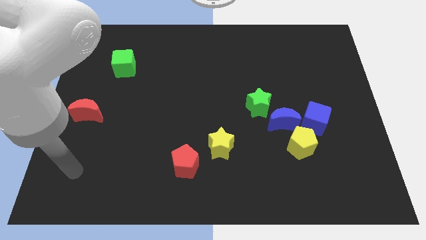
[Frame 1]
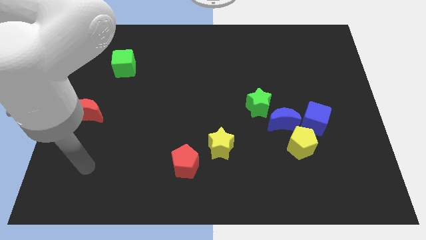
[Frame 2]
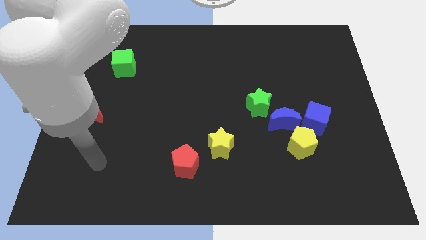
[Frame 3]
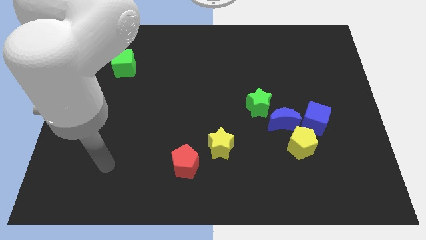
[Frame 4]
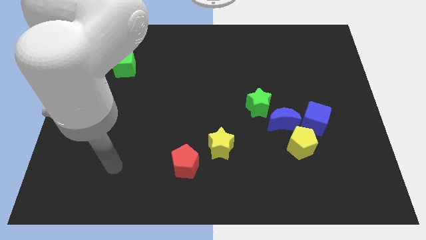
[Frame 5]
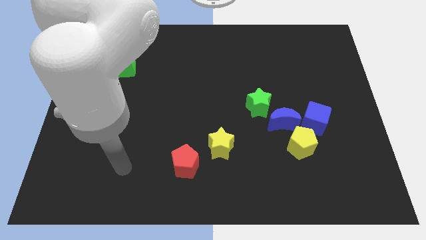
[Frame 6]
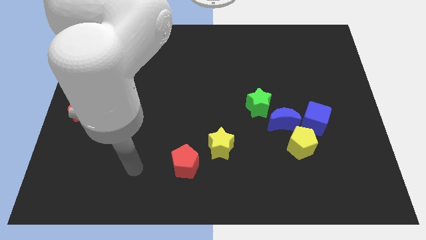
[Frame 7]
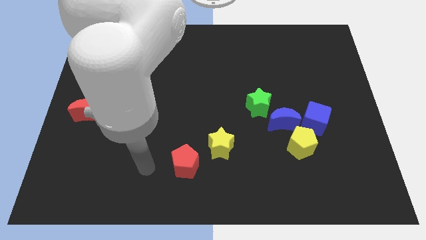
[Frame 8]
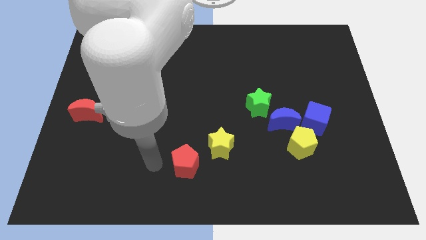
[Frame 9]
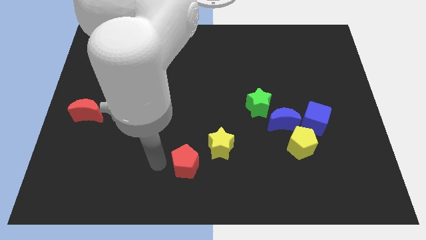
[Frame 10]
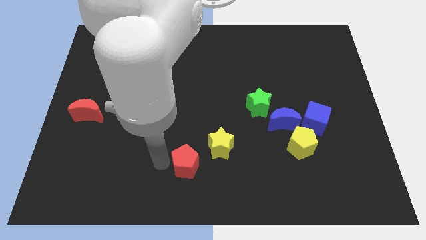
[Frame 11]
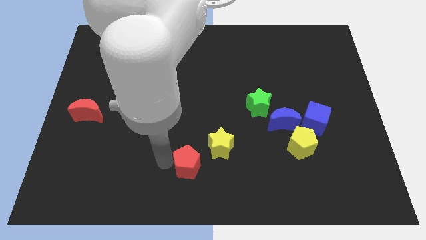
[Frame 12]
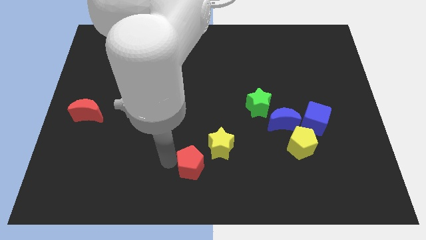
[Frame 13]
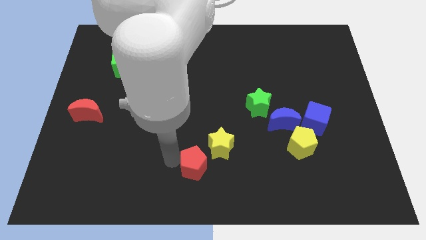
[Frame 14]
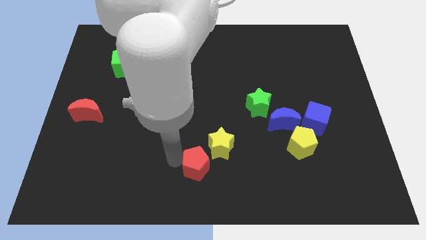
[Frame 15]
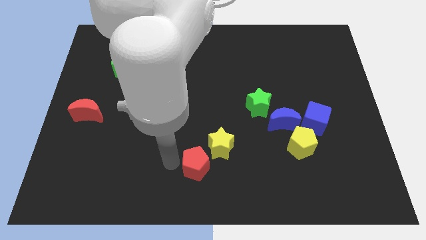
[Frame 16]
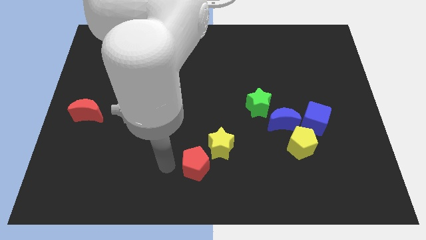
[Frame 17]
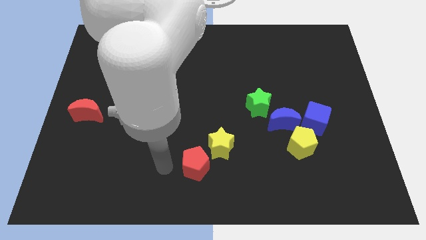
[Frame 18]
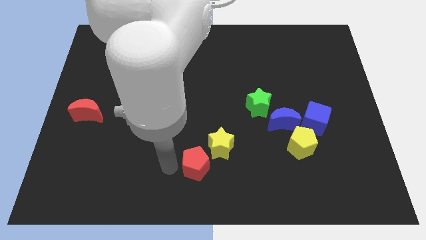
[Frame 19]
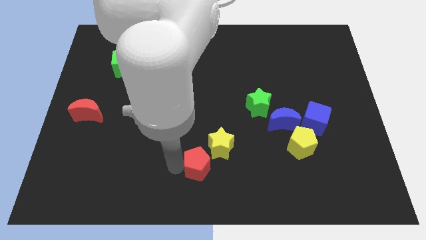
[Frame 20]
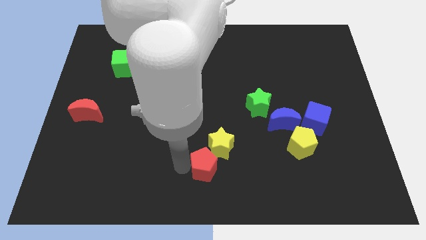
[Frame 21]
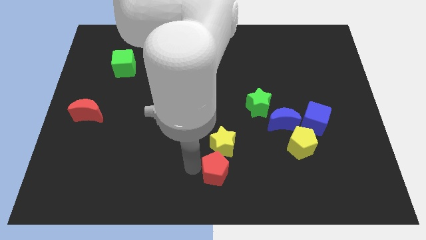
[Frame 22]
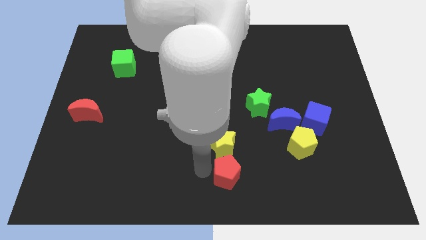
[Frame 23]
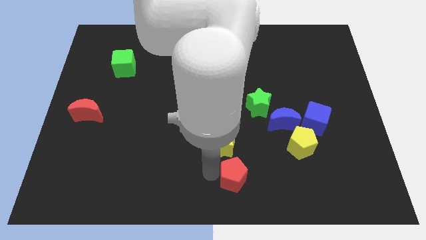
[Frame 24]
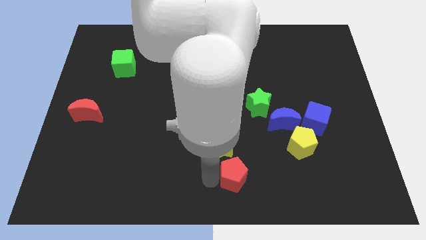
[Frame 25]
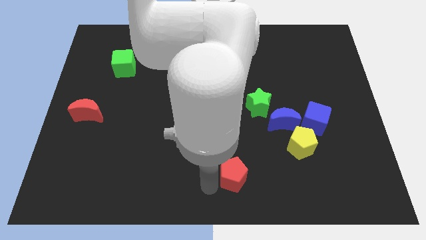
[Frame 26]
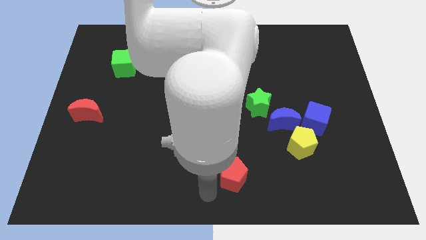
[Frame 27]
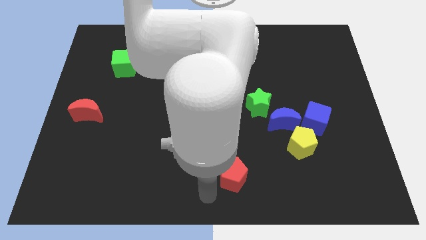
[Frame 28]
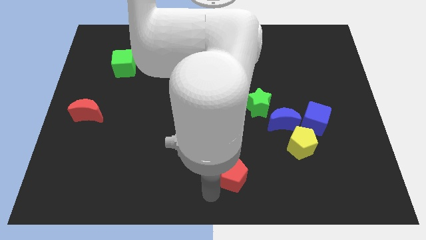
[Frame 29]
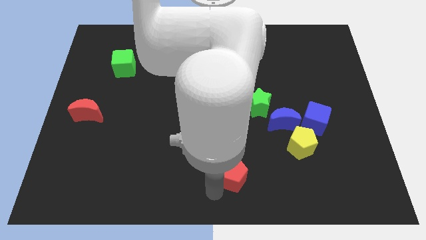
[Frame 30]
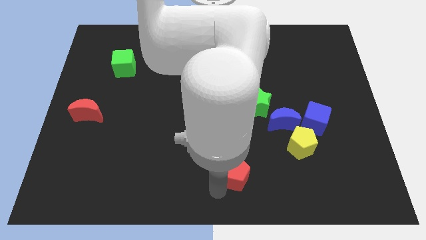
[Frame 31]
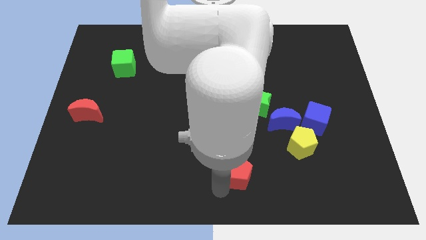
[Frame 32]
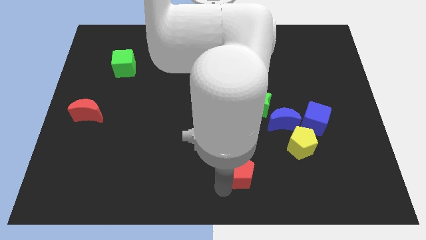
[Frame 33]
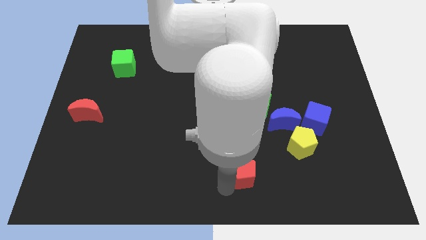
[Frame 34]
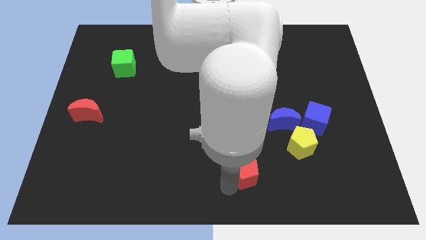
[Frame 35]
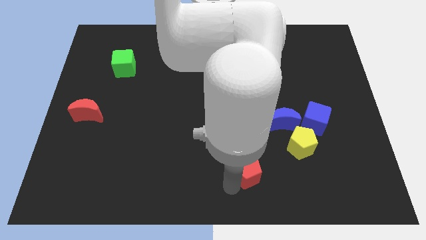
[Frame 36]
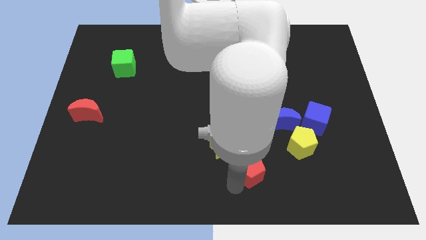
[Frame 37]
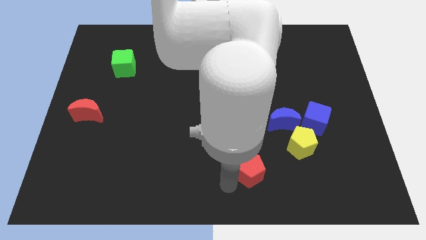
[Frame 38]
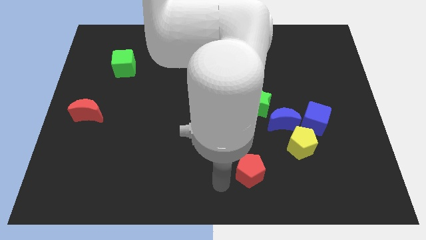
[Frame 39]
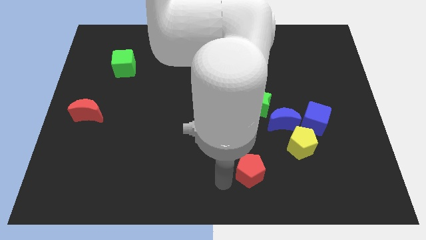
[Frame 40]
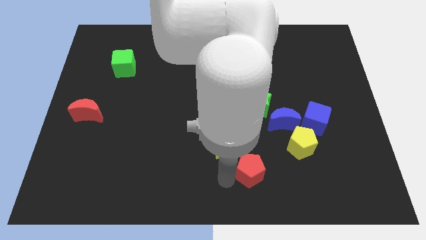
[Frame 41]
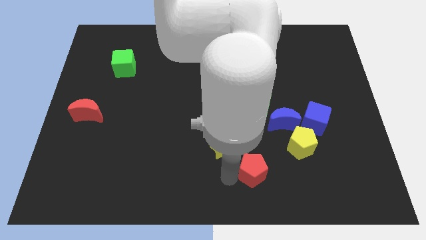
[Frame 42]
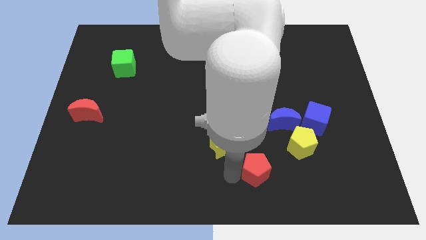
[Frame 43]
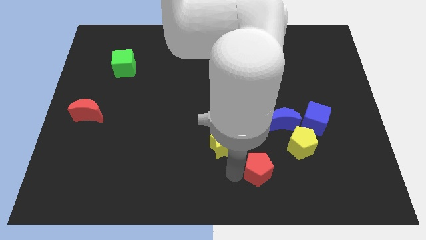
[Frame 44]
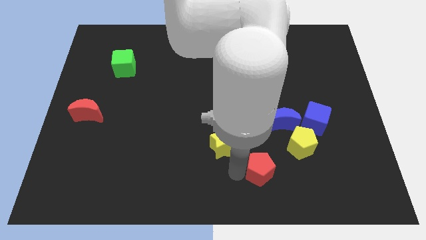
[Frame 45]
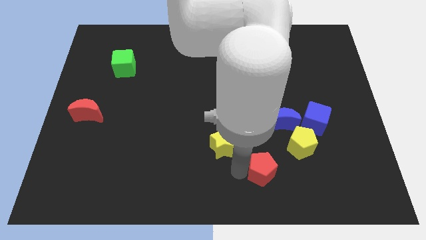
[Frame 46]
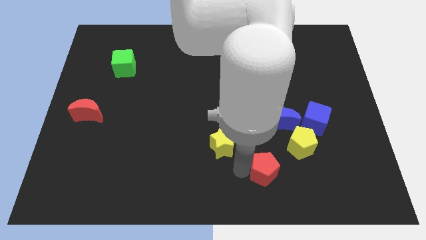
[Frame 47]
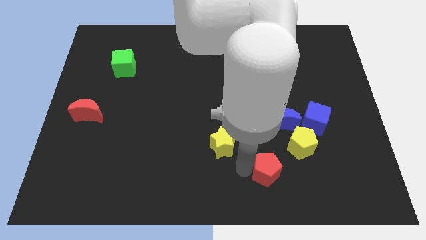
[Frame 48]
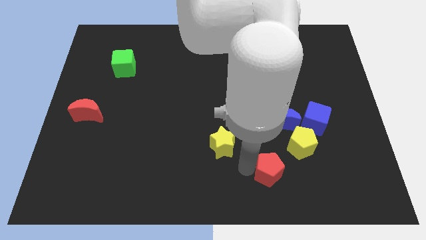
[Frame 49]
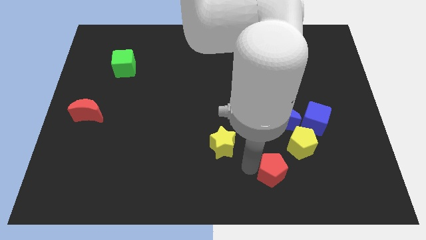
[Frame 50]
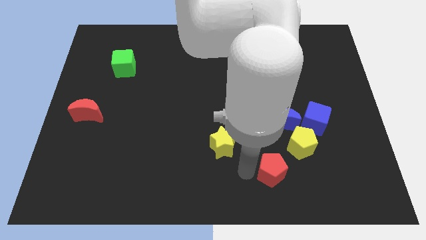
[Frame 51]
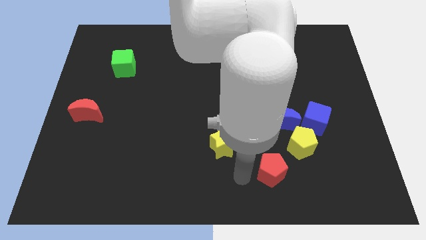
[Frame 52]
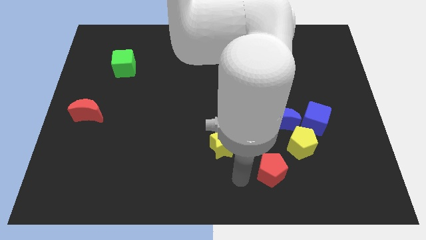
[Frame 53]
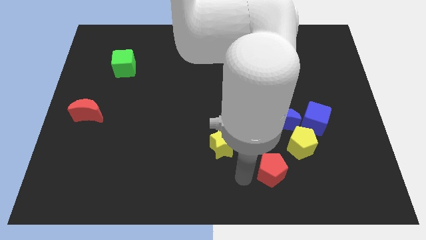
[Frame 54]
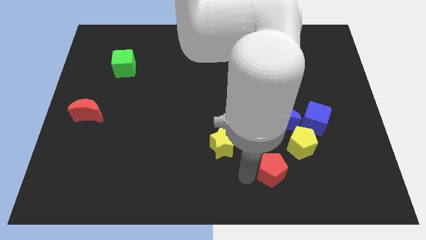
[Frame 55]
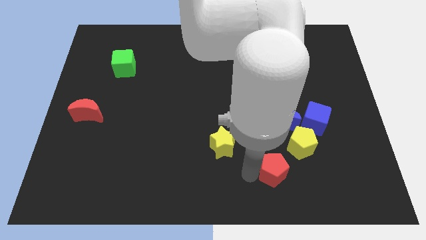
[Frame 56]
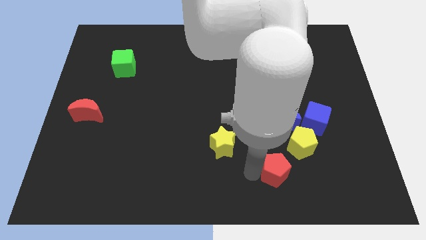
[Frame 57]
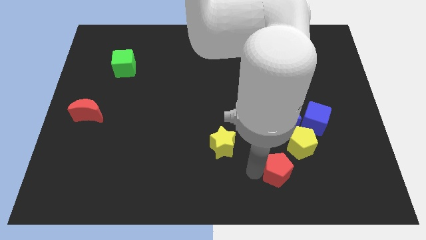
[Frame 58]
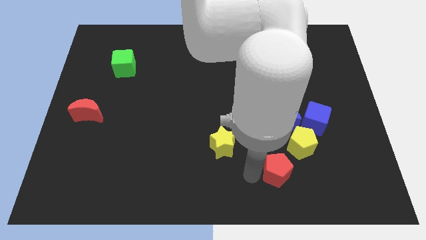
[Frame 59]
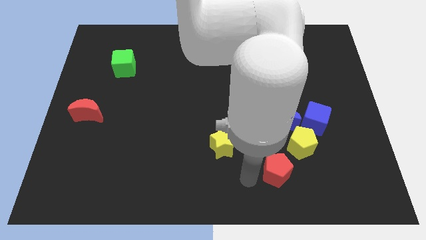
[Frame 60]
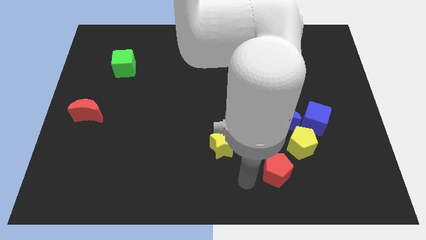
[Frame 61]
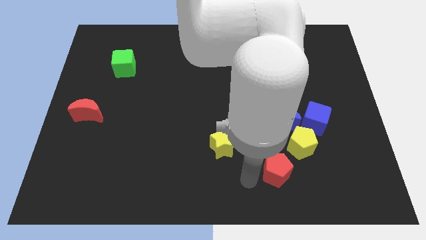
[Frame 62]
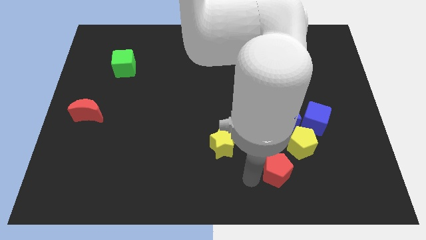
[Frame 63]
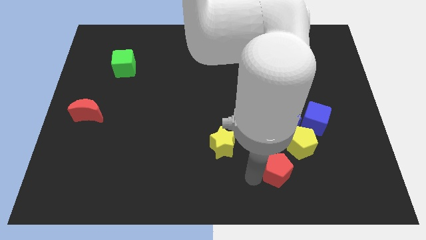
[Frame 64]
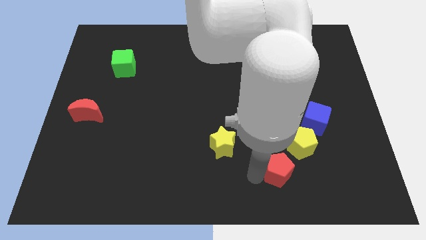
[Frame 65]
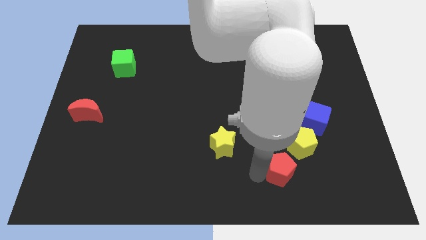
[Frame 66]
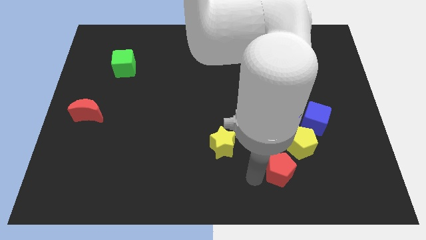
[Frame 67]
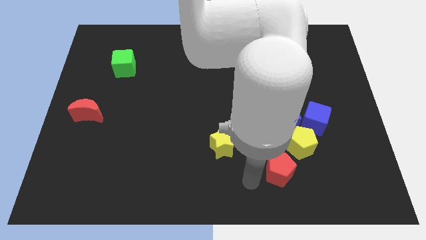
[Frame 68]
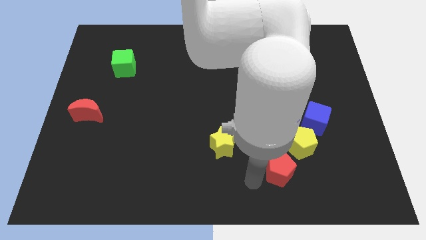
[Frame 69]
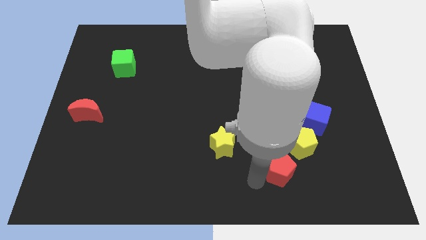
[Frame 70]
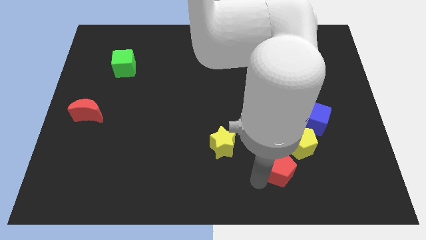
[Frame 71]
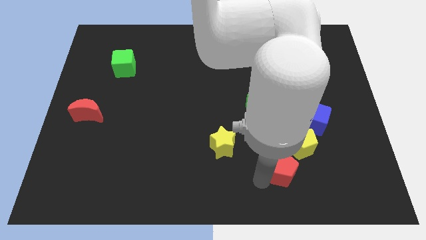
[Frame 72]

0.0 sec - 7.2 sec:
push the red pentagon right

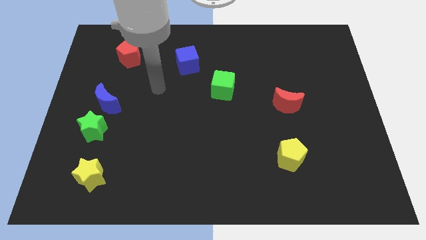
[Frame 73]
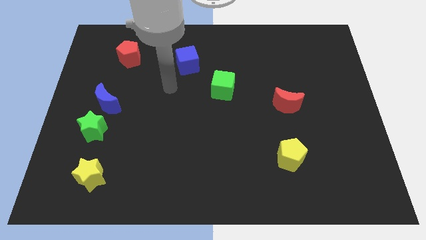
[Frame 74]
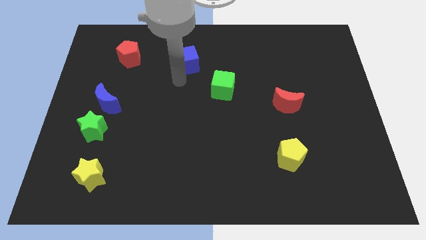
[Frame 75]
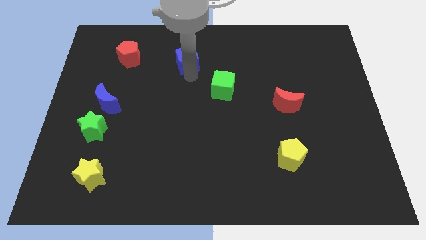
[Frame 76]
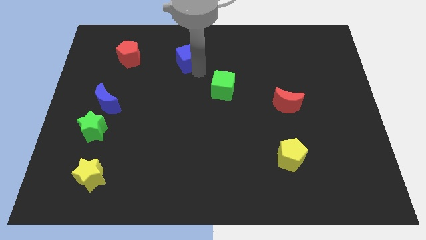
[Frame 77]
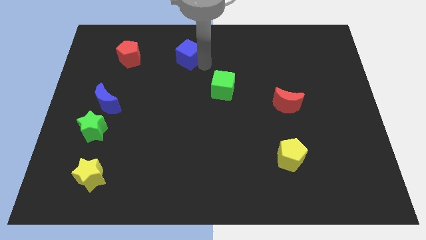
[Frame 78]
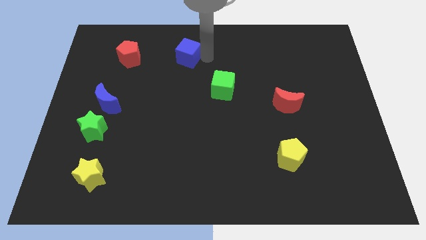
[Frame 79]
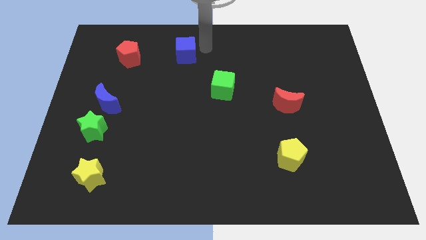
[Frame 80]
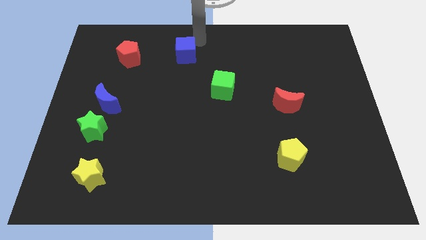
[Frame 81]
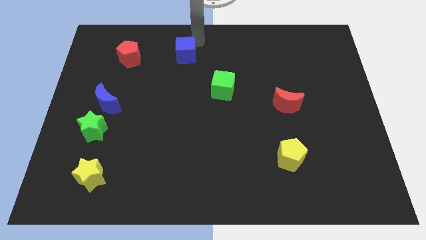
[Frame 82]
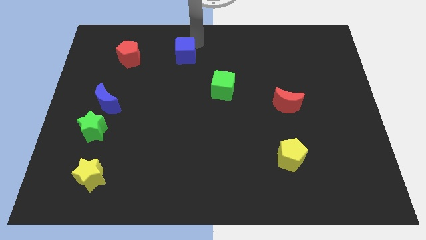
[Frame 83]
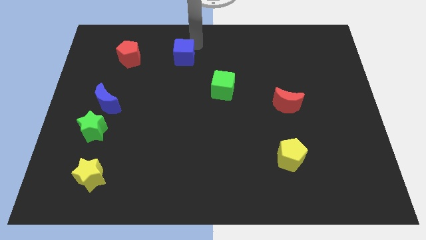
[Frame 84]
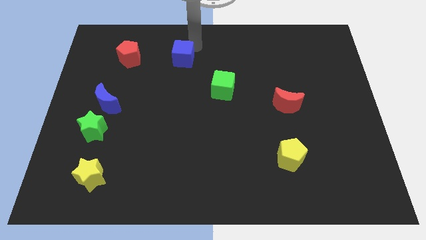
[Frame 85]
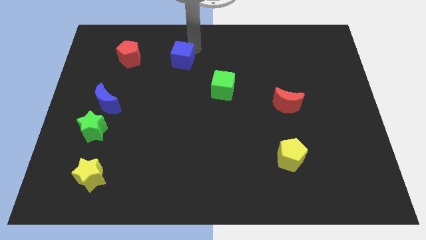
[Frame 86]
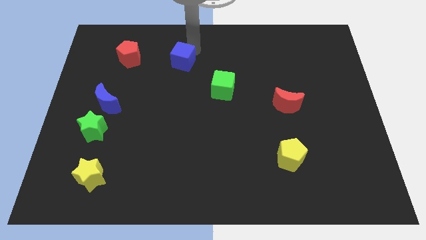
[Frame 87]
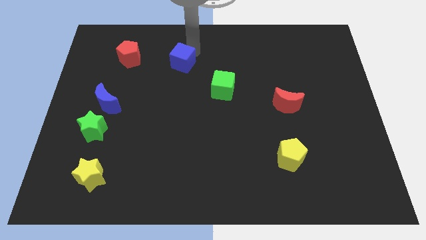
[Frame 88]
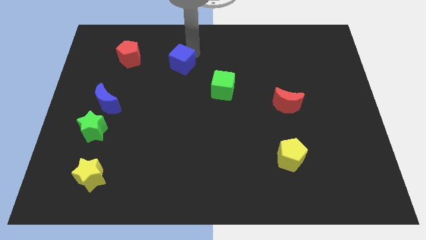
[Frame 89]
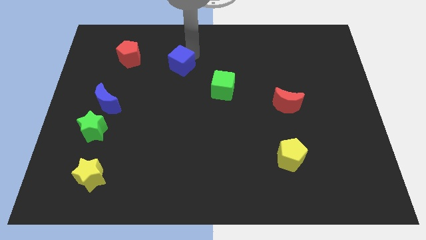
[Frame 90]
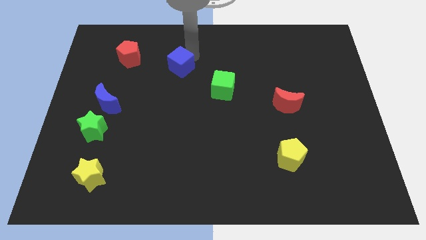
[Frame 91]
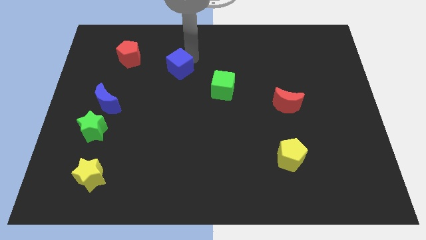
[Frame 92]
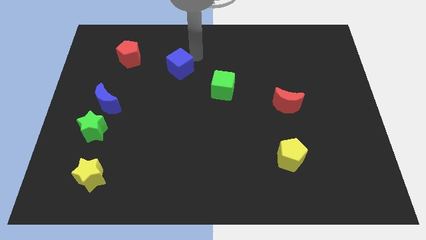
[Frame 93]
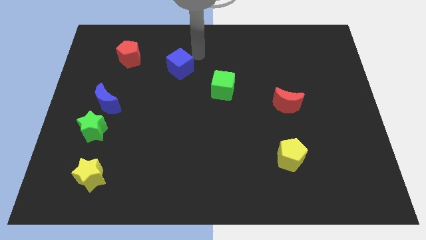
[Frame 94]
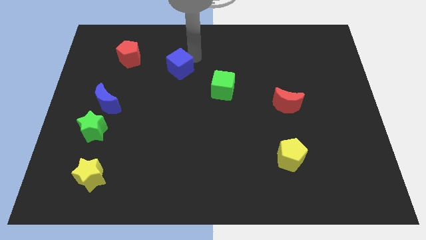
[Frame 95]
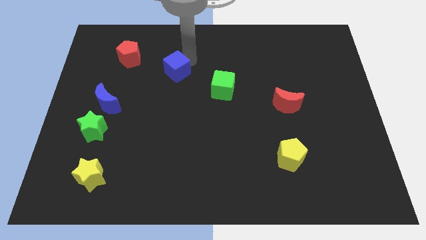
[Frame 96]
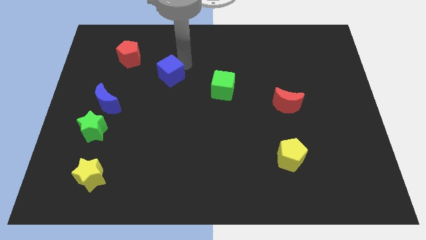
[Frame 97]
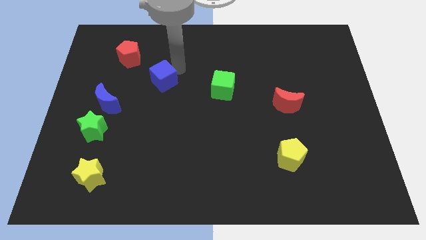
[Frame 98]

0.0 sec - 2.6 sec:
slide the blue cube a bit down and to the left
